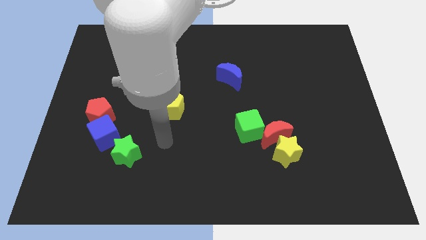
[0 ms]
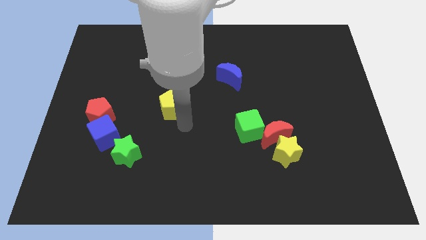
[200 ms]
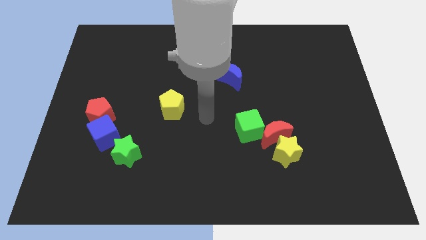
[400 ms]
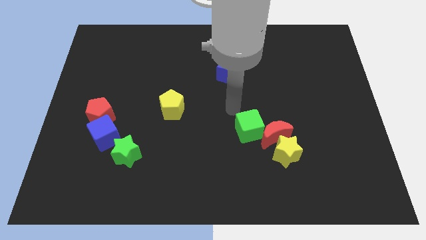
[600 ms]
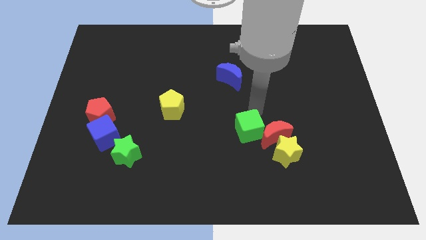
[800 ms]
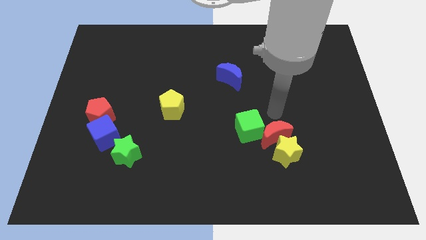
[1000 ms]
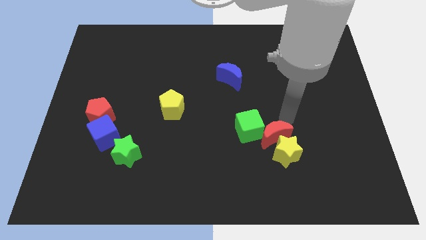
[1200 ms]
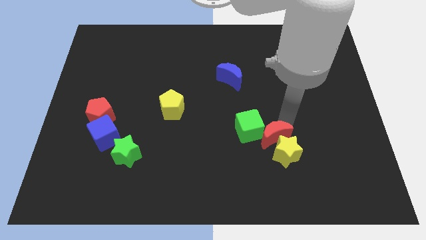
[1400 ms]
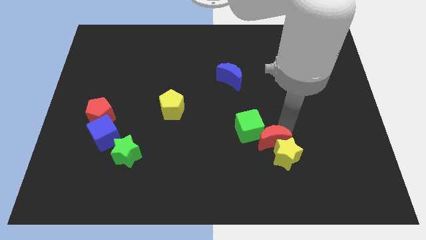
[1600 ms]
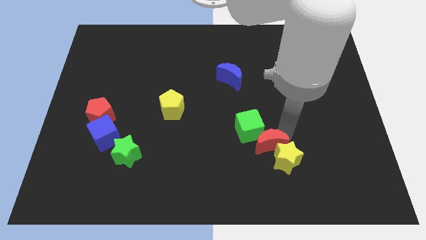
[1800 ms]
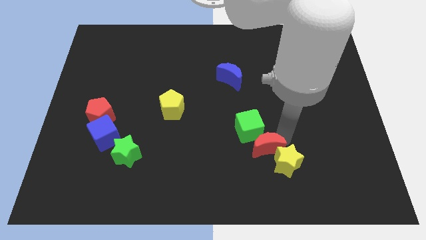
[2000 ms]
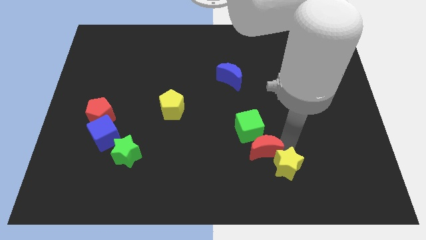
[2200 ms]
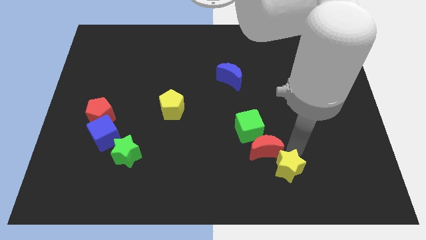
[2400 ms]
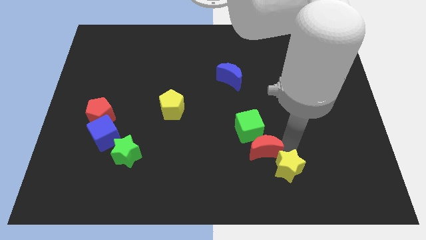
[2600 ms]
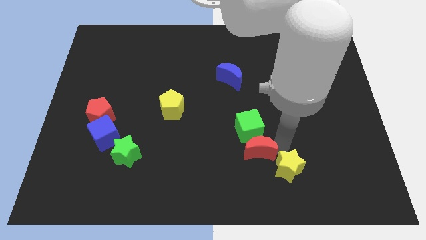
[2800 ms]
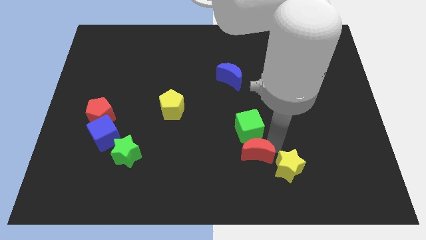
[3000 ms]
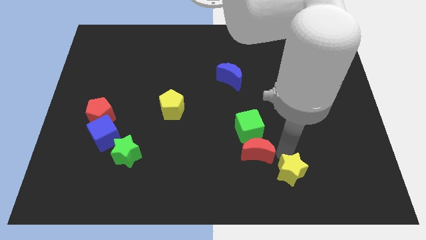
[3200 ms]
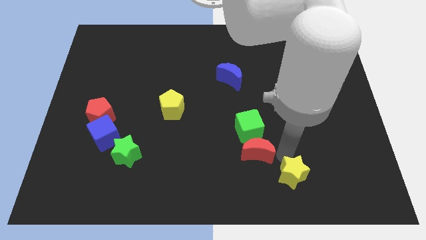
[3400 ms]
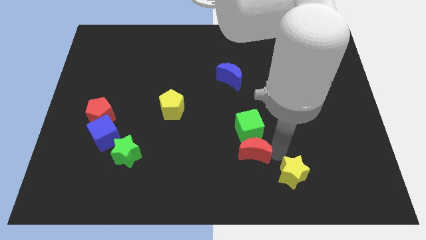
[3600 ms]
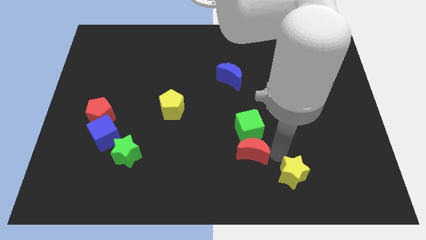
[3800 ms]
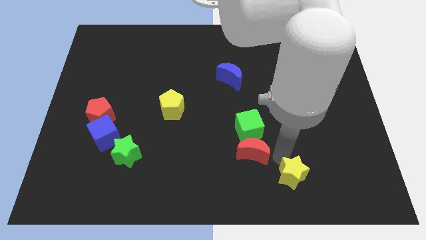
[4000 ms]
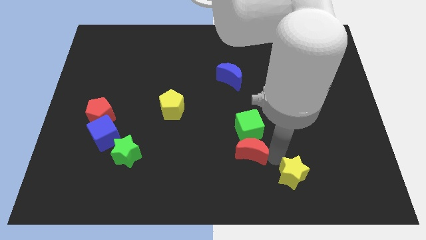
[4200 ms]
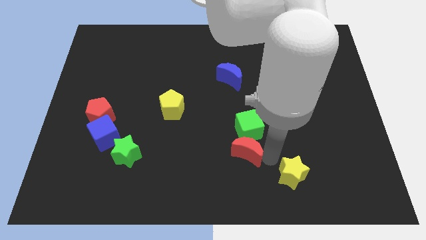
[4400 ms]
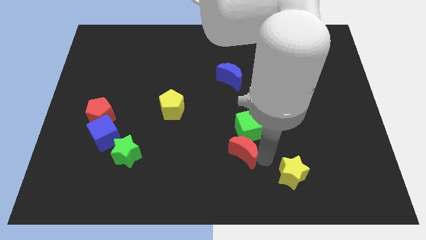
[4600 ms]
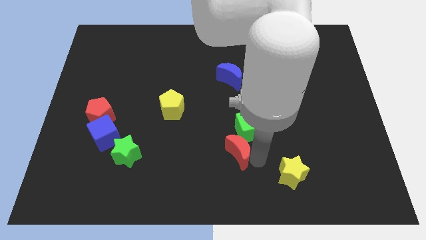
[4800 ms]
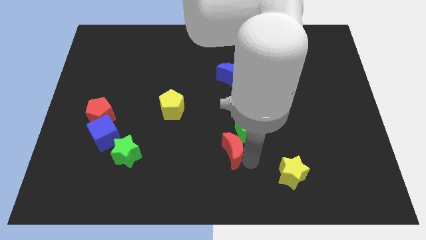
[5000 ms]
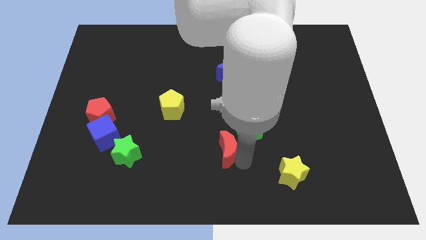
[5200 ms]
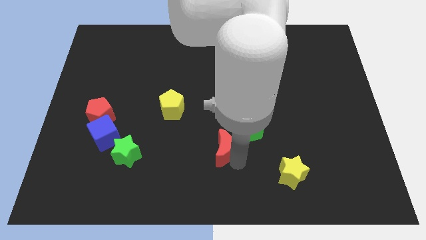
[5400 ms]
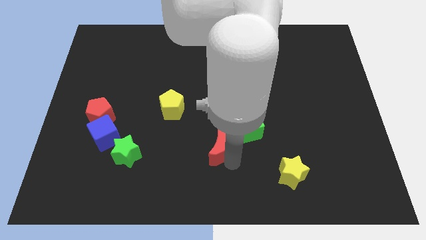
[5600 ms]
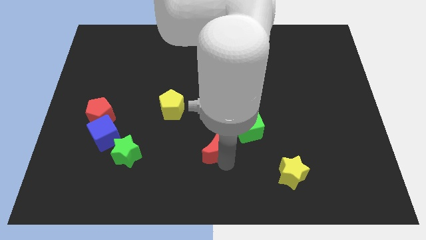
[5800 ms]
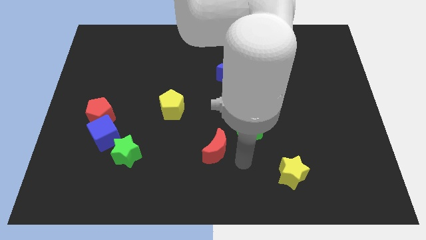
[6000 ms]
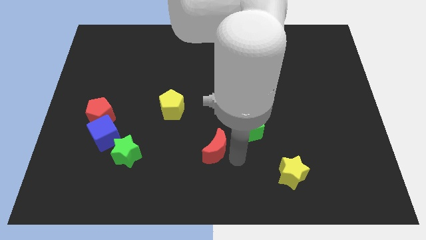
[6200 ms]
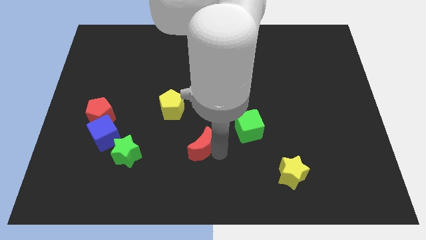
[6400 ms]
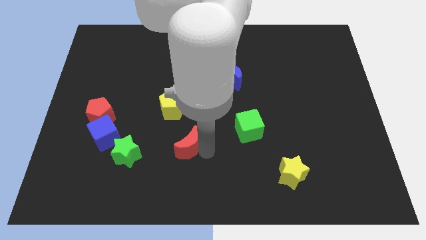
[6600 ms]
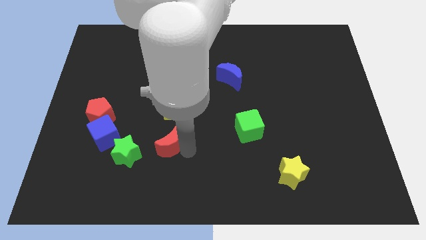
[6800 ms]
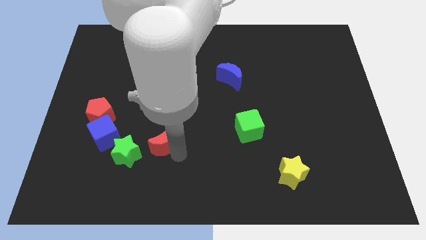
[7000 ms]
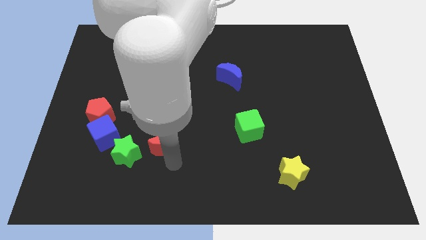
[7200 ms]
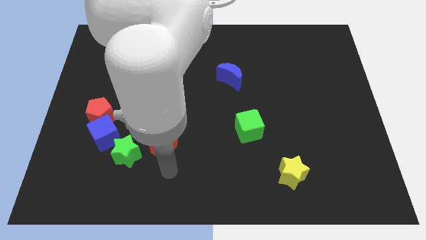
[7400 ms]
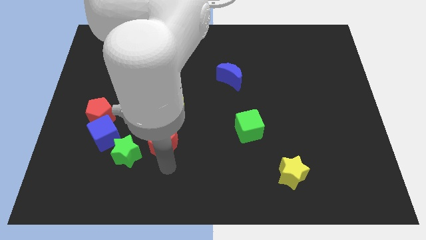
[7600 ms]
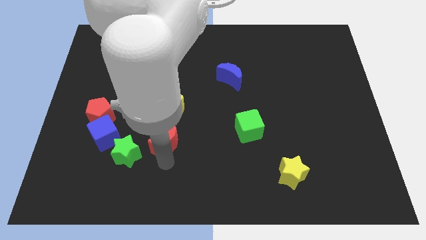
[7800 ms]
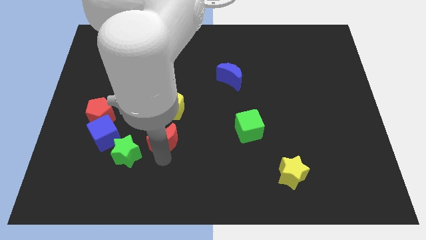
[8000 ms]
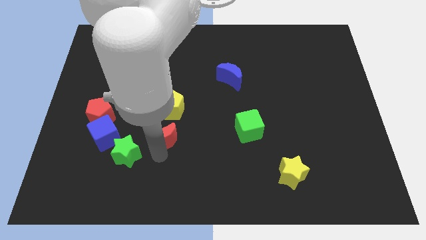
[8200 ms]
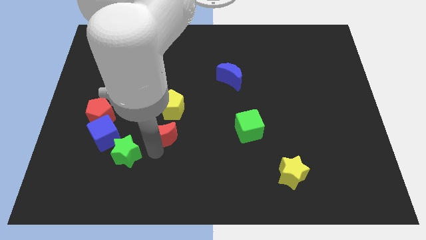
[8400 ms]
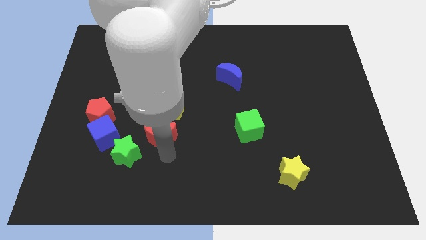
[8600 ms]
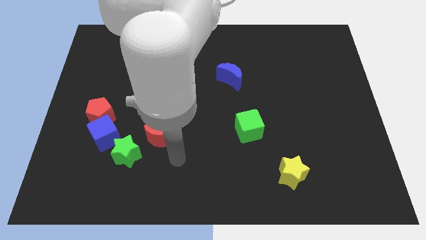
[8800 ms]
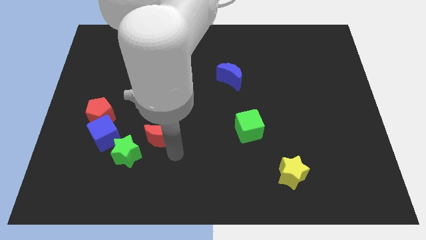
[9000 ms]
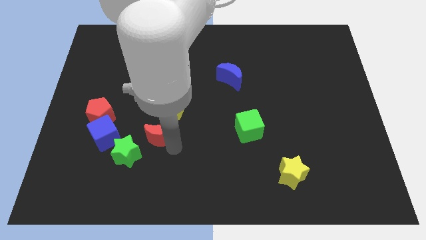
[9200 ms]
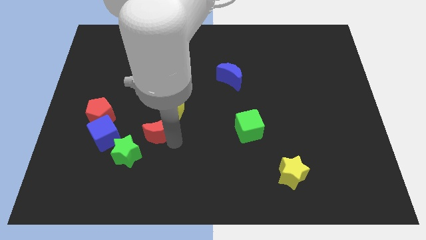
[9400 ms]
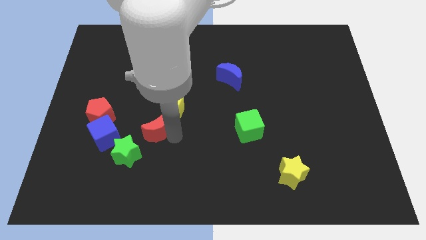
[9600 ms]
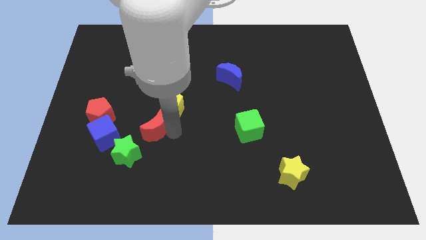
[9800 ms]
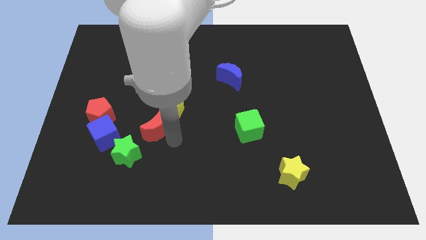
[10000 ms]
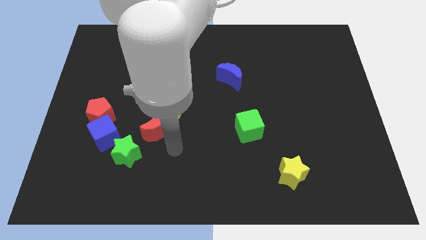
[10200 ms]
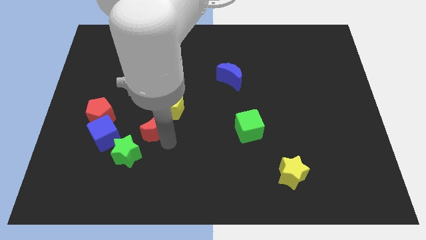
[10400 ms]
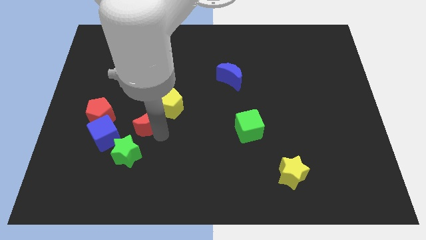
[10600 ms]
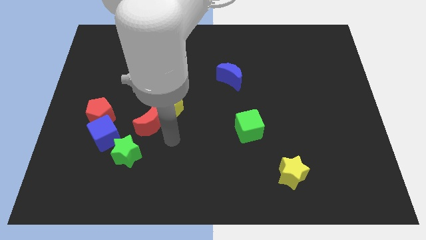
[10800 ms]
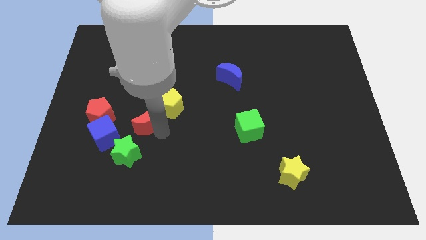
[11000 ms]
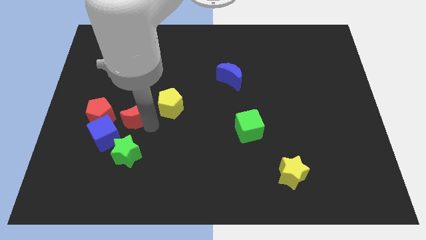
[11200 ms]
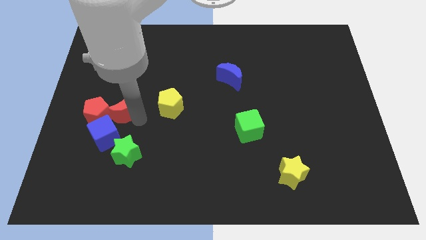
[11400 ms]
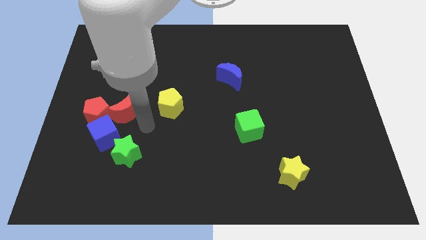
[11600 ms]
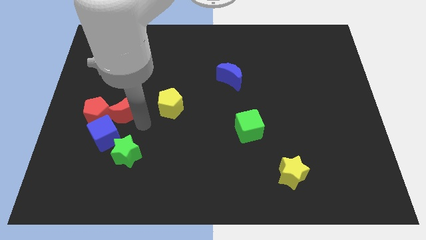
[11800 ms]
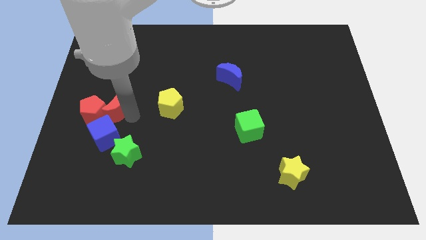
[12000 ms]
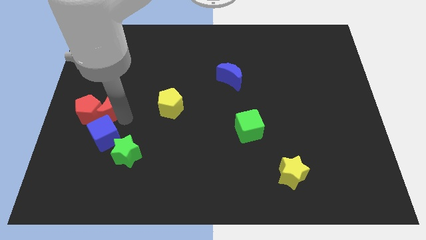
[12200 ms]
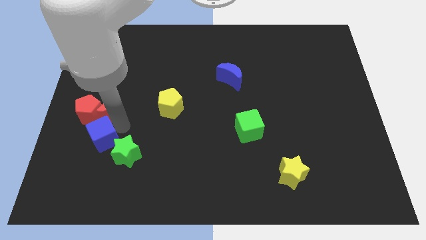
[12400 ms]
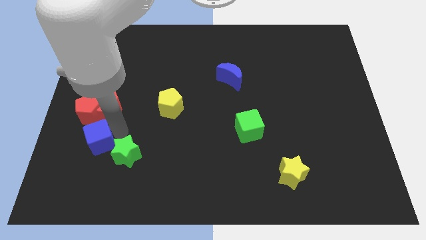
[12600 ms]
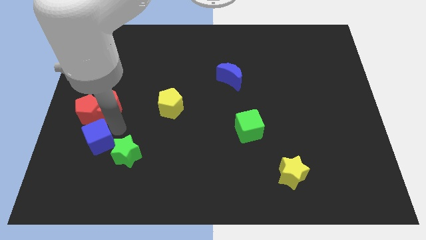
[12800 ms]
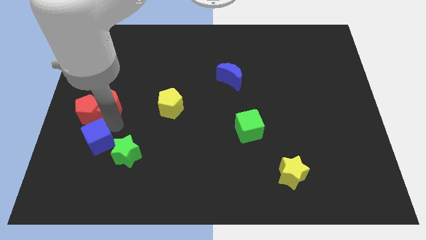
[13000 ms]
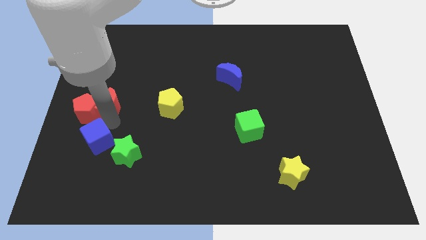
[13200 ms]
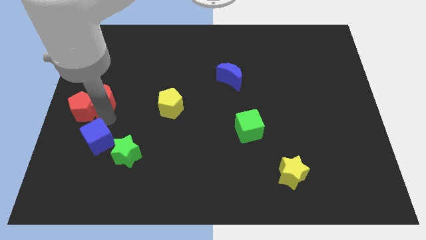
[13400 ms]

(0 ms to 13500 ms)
push the red moon to the left side

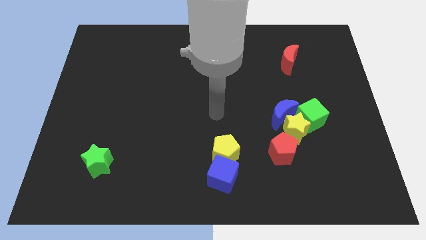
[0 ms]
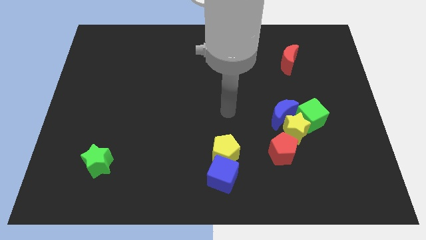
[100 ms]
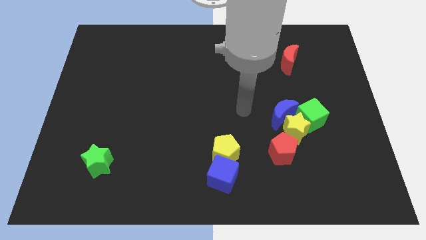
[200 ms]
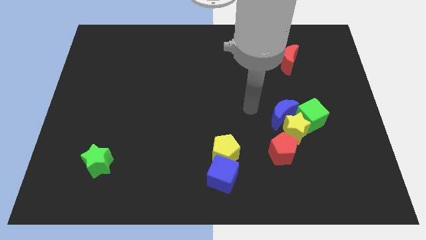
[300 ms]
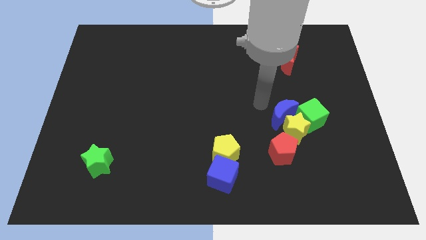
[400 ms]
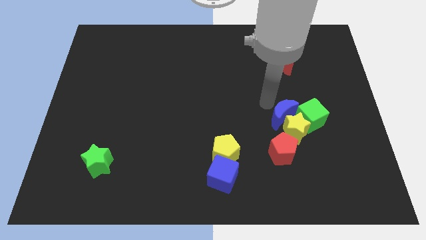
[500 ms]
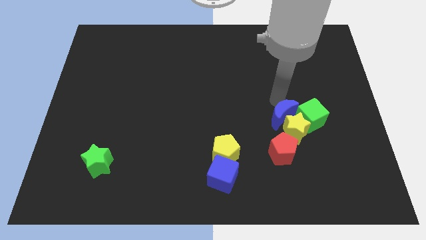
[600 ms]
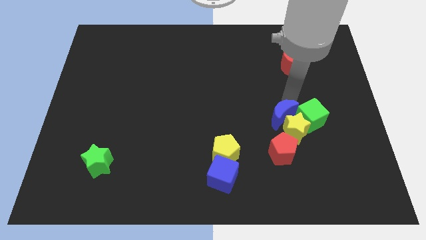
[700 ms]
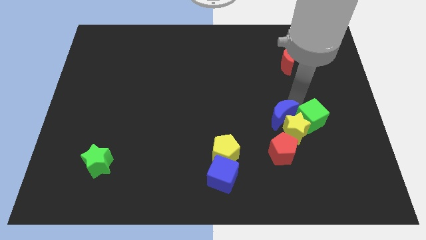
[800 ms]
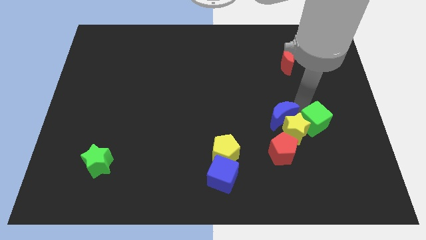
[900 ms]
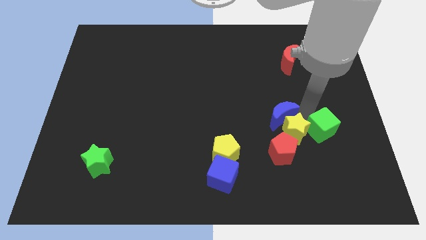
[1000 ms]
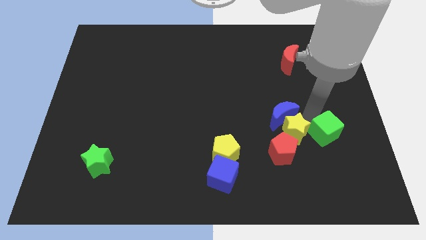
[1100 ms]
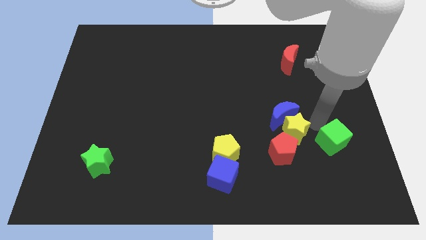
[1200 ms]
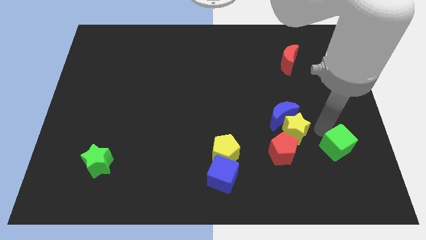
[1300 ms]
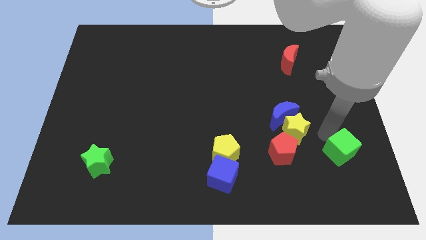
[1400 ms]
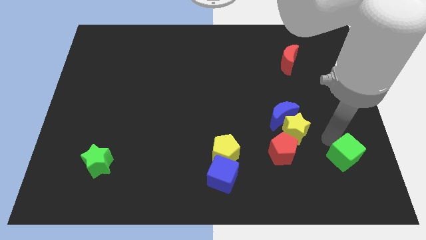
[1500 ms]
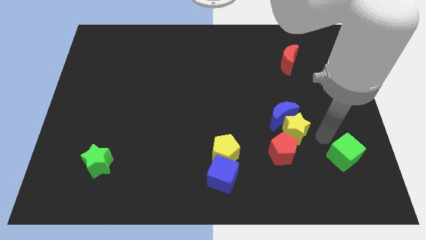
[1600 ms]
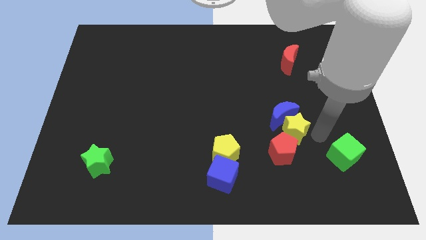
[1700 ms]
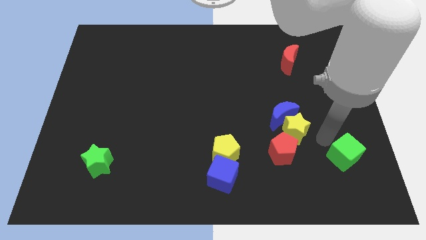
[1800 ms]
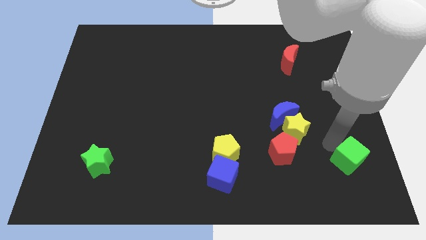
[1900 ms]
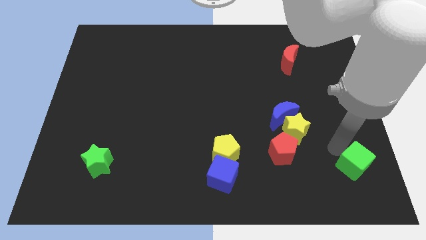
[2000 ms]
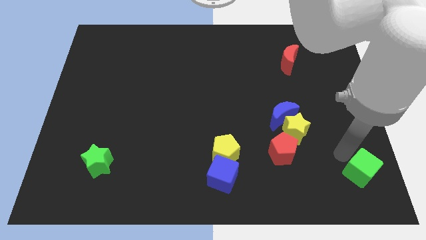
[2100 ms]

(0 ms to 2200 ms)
move the green cube to the bottom right of the board
